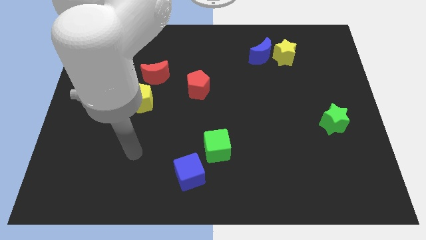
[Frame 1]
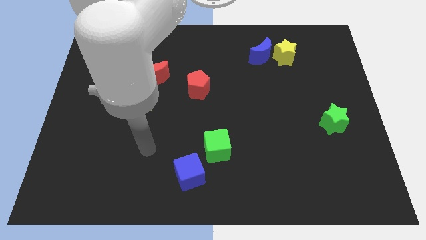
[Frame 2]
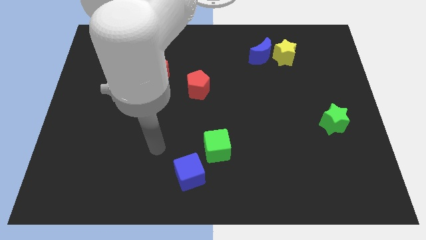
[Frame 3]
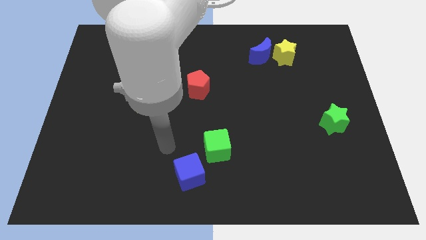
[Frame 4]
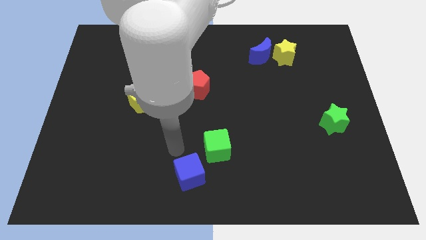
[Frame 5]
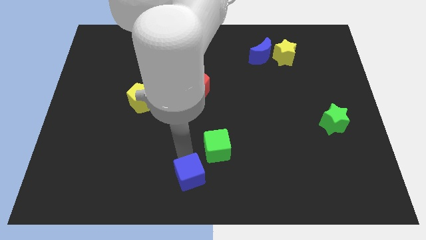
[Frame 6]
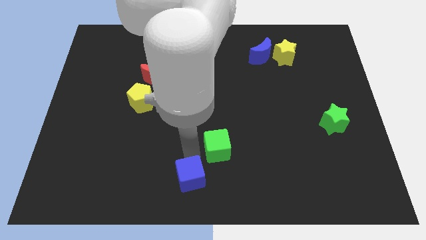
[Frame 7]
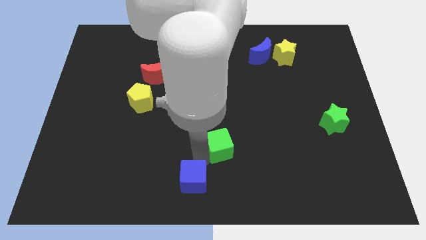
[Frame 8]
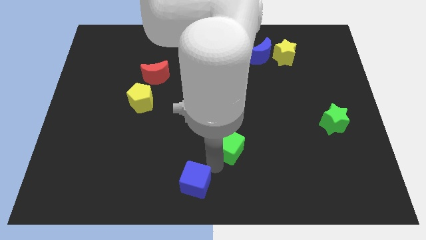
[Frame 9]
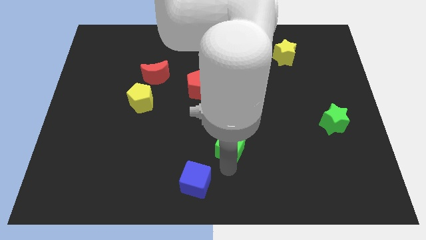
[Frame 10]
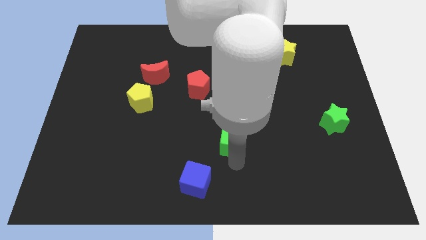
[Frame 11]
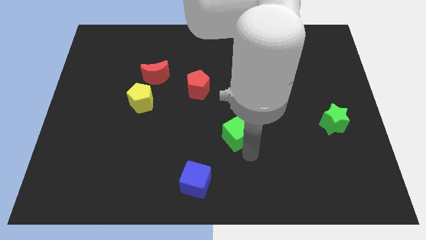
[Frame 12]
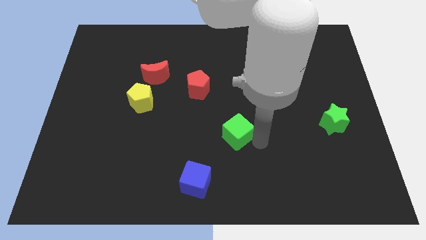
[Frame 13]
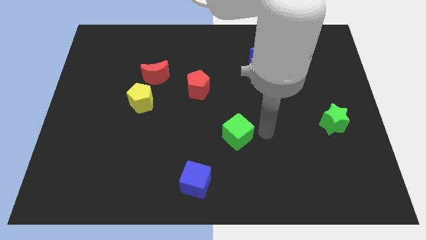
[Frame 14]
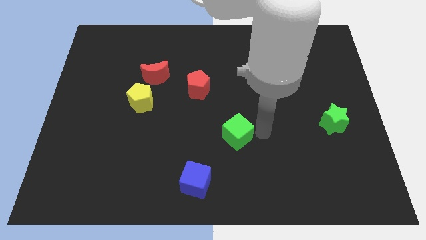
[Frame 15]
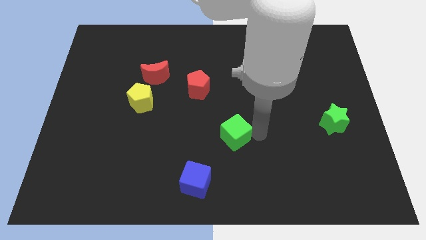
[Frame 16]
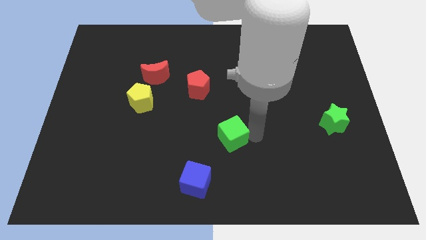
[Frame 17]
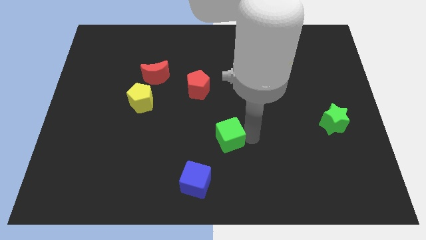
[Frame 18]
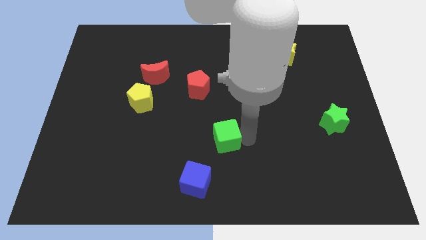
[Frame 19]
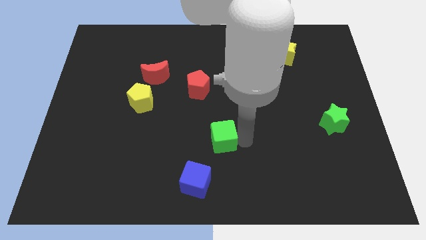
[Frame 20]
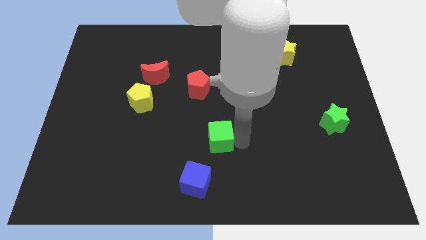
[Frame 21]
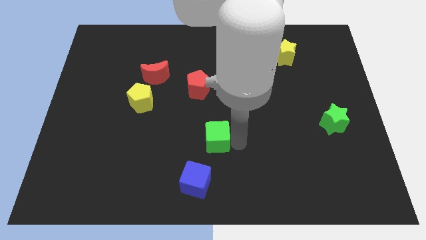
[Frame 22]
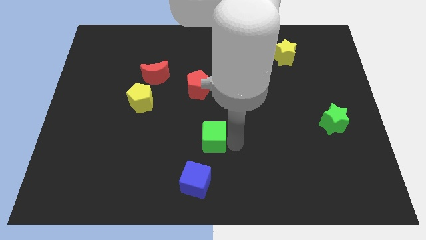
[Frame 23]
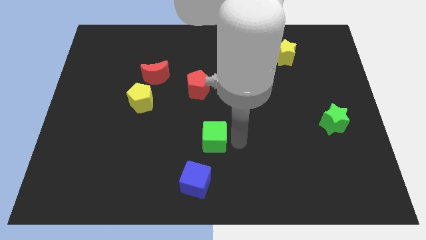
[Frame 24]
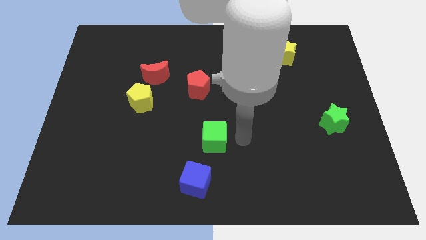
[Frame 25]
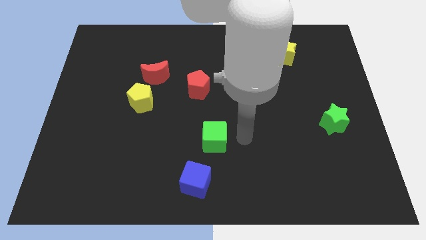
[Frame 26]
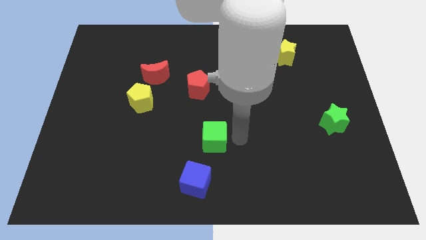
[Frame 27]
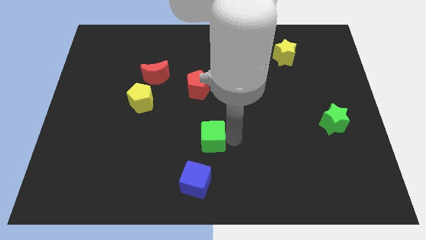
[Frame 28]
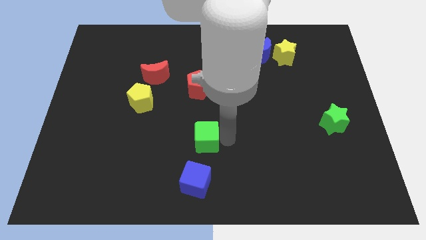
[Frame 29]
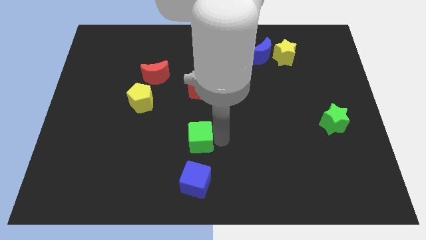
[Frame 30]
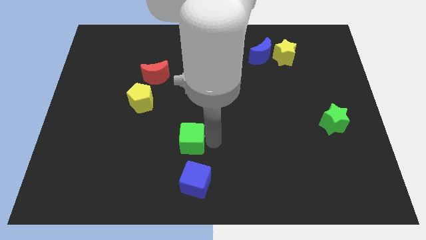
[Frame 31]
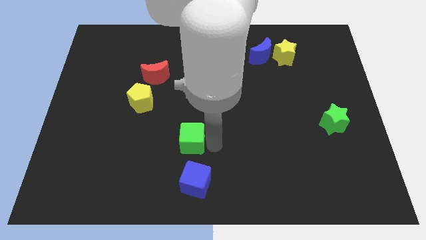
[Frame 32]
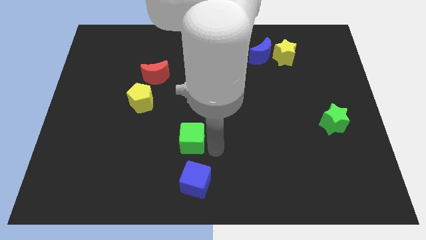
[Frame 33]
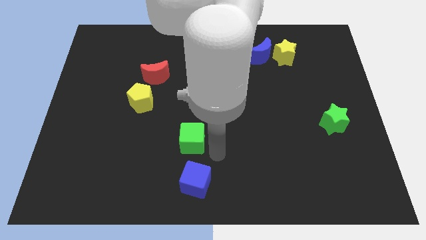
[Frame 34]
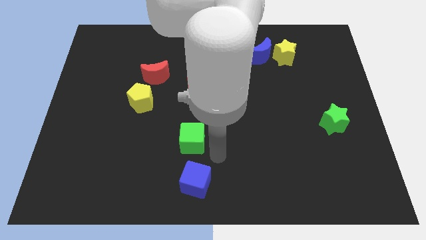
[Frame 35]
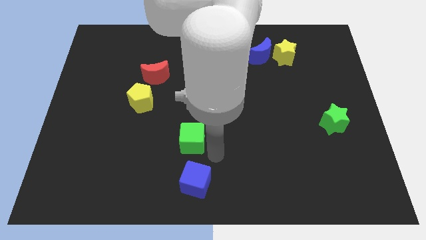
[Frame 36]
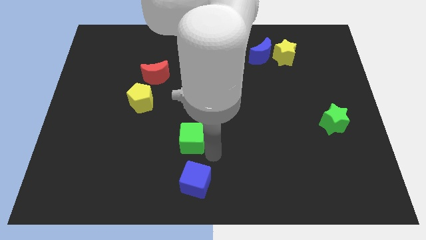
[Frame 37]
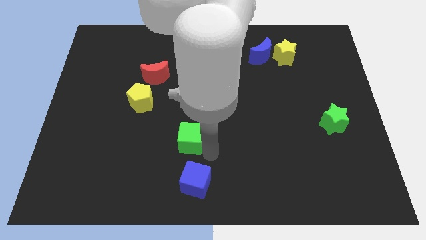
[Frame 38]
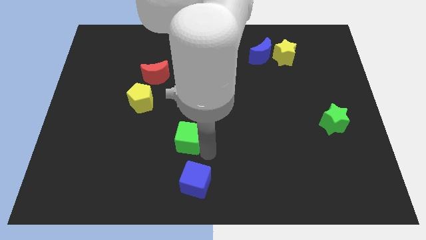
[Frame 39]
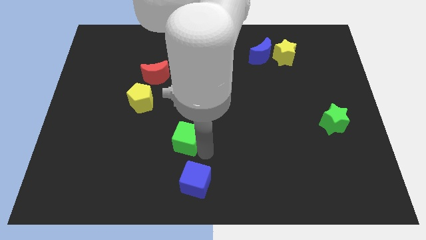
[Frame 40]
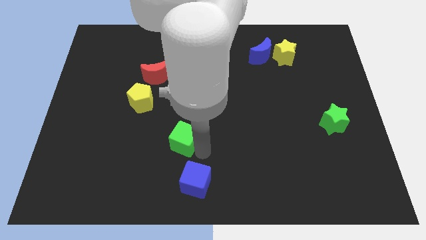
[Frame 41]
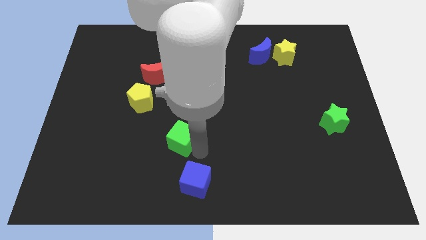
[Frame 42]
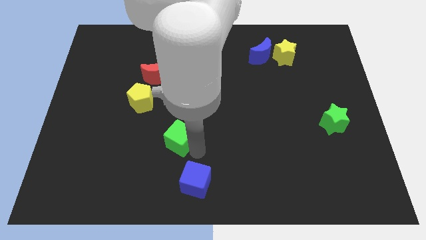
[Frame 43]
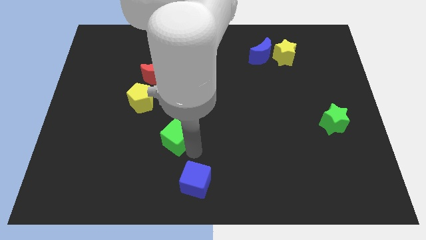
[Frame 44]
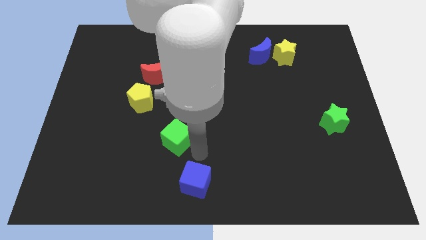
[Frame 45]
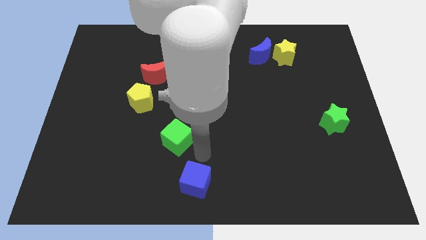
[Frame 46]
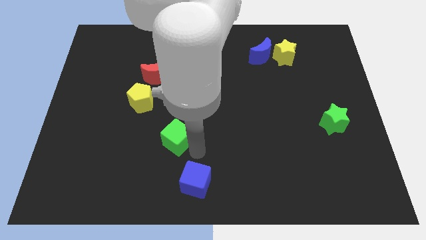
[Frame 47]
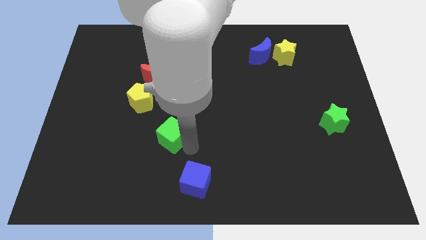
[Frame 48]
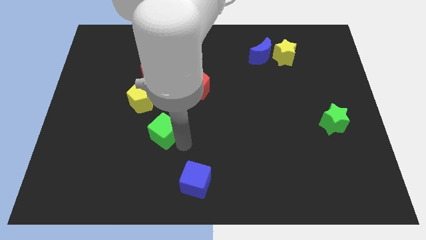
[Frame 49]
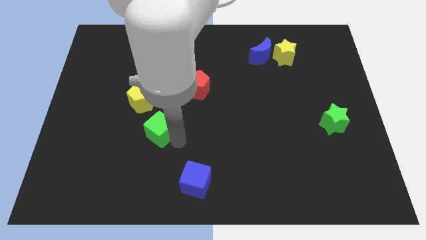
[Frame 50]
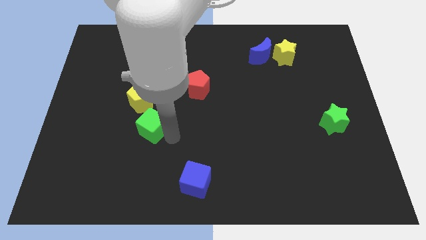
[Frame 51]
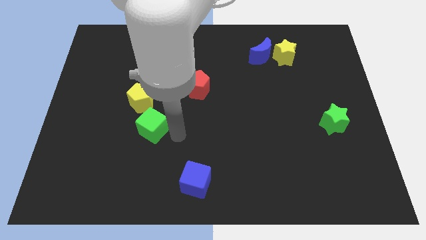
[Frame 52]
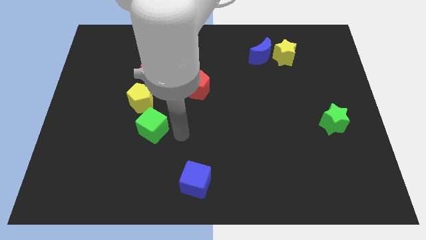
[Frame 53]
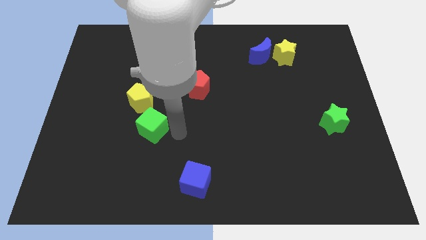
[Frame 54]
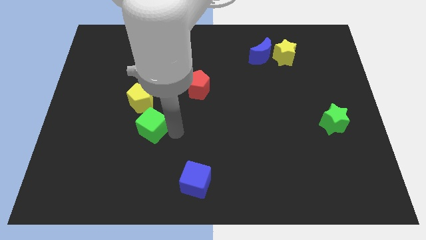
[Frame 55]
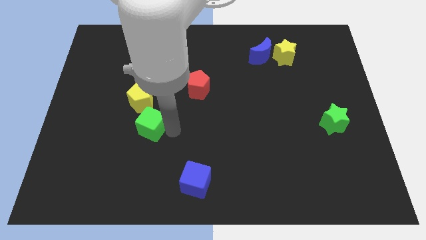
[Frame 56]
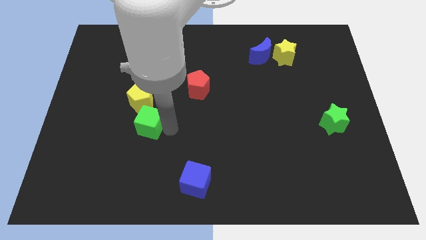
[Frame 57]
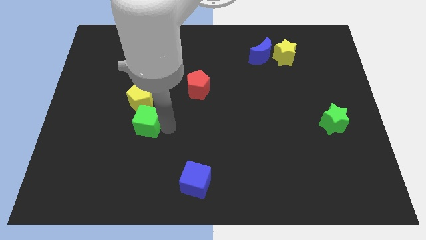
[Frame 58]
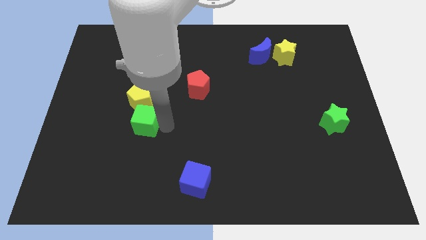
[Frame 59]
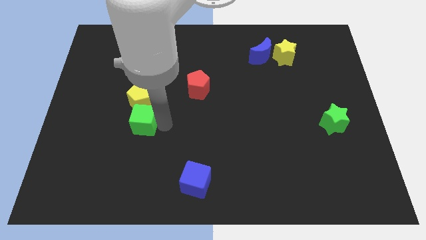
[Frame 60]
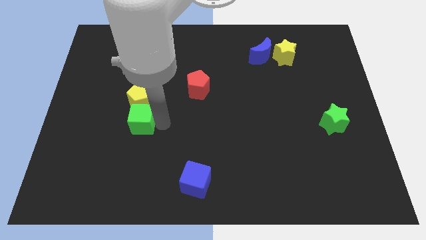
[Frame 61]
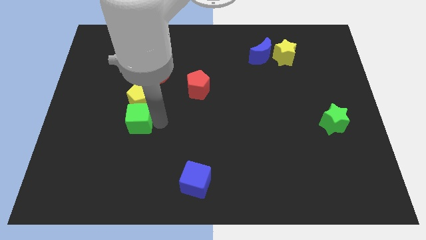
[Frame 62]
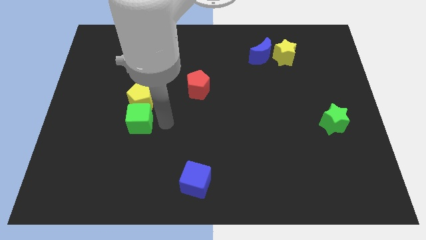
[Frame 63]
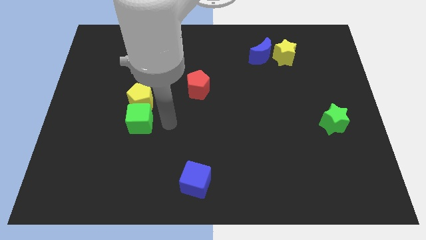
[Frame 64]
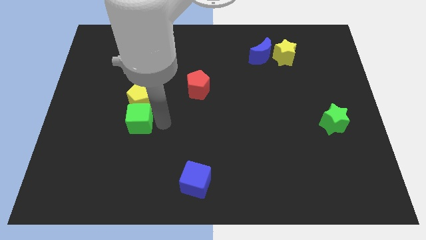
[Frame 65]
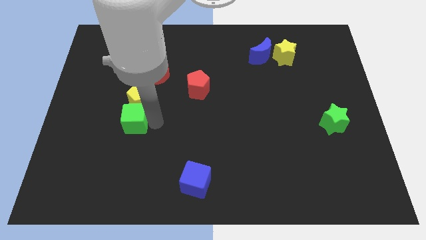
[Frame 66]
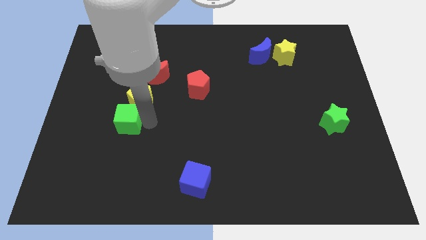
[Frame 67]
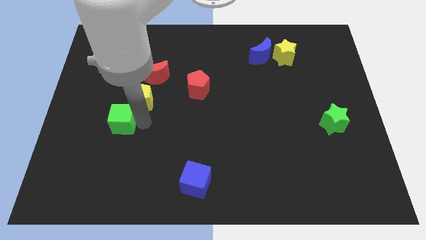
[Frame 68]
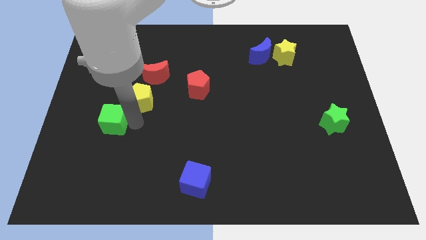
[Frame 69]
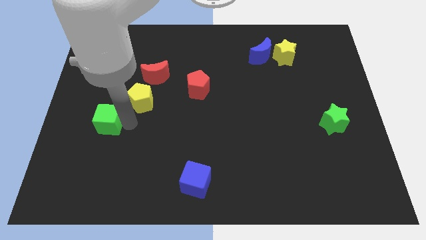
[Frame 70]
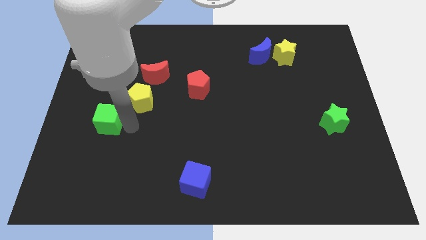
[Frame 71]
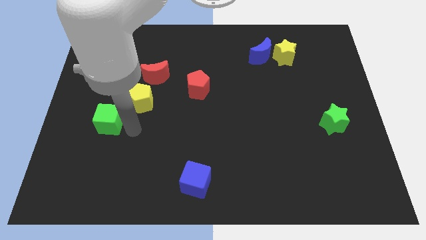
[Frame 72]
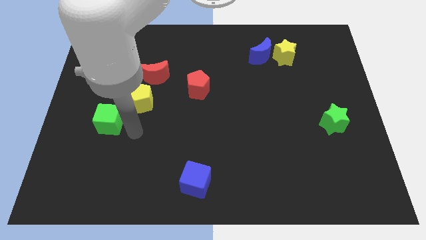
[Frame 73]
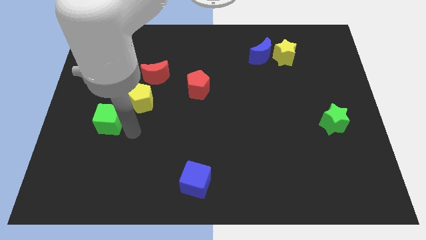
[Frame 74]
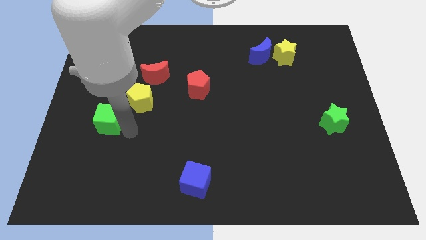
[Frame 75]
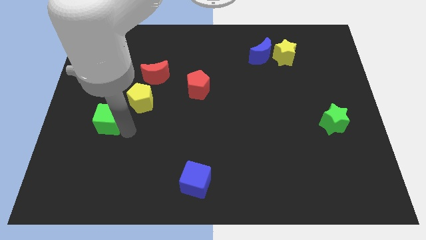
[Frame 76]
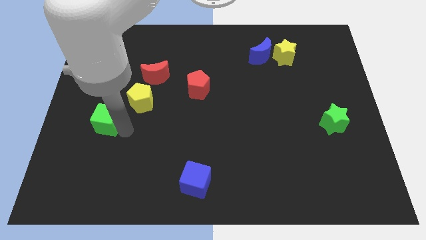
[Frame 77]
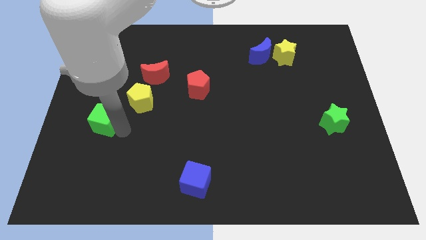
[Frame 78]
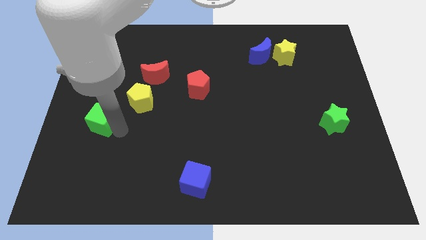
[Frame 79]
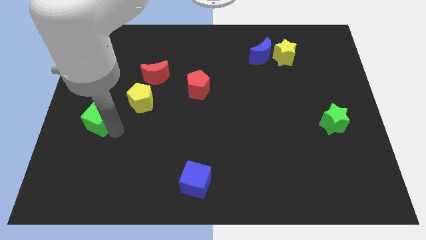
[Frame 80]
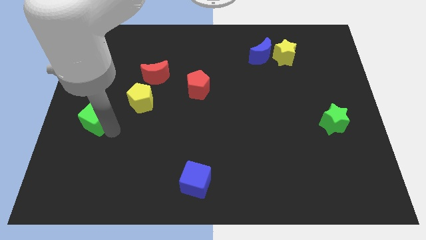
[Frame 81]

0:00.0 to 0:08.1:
slide the green cube to the left side
